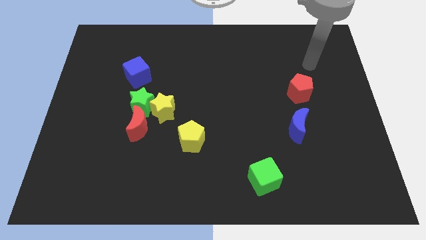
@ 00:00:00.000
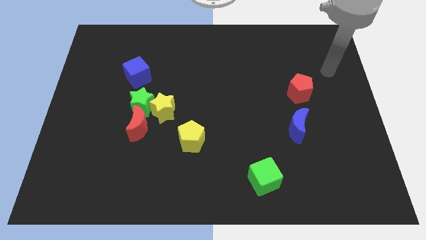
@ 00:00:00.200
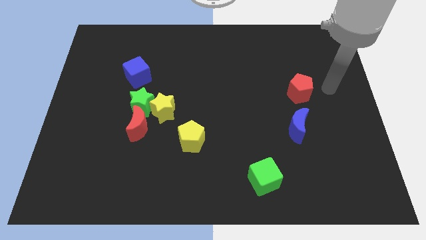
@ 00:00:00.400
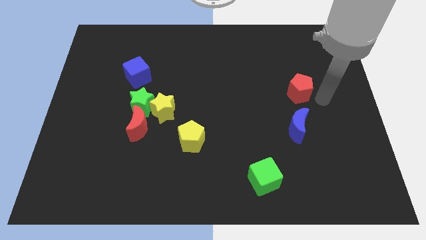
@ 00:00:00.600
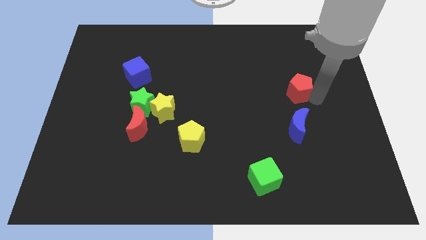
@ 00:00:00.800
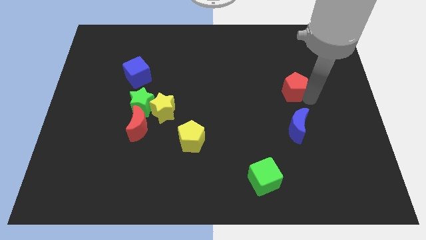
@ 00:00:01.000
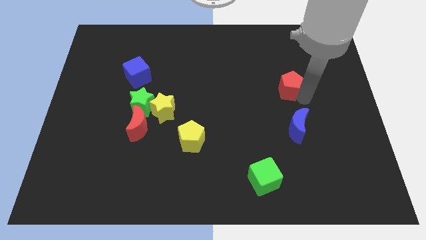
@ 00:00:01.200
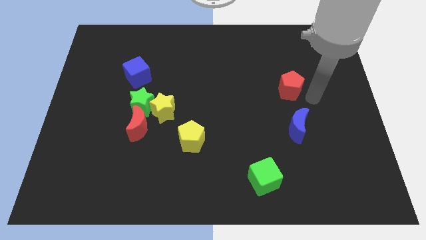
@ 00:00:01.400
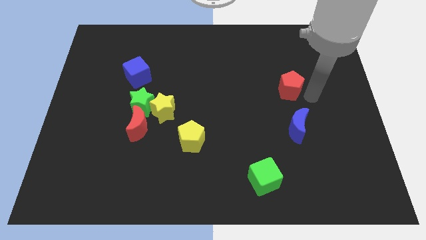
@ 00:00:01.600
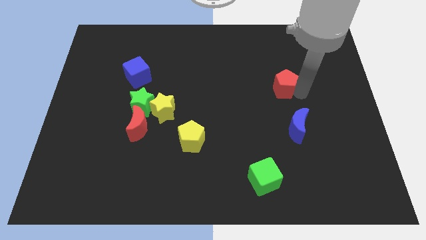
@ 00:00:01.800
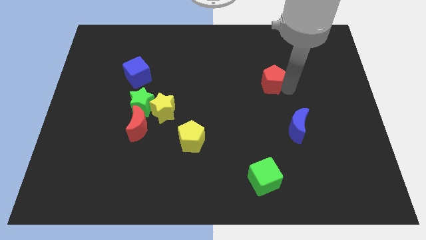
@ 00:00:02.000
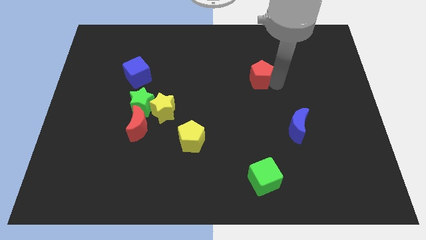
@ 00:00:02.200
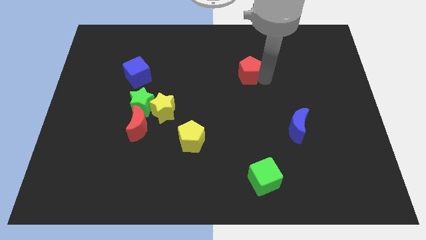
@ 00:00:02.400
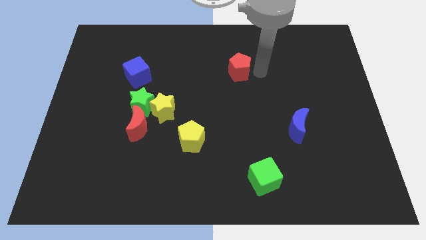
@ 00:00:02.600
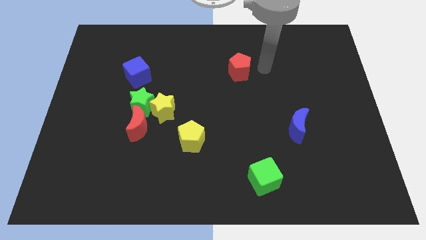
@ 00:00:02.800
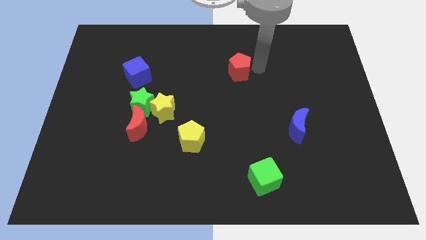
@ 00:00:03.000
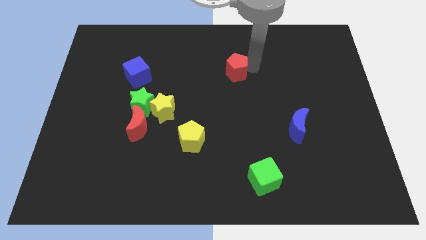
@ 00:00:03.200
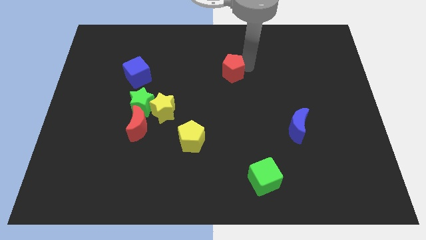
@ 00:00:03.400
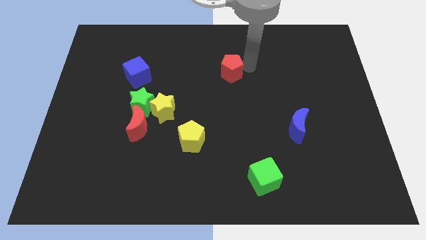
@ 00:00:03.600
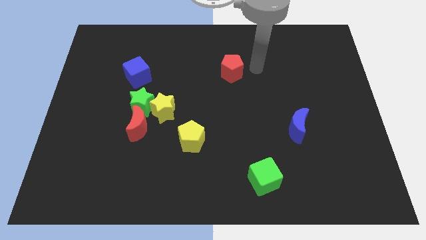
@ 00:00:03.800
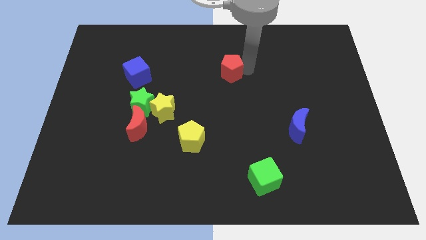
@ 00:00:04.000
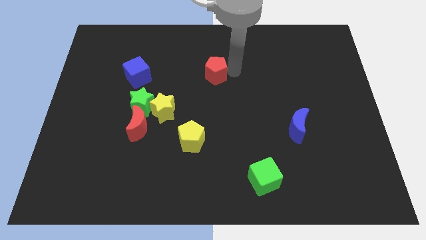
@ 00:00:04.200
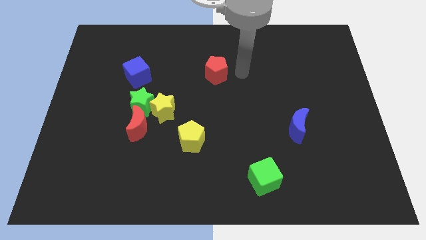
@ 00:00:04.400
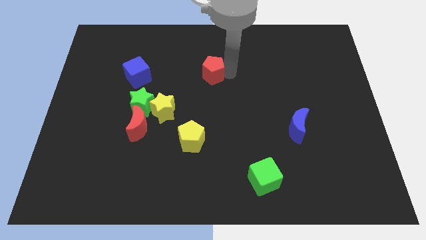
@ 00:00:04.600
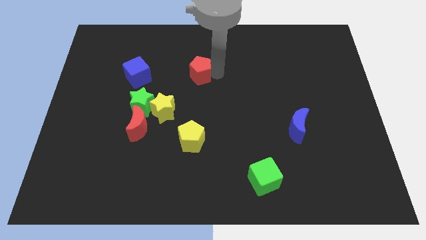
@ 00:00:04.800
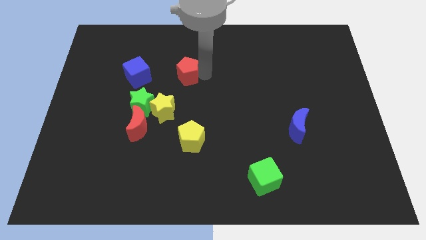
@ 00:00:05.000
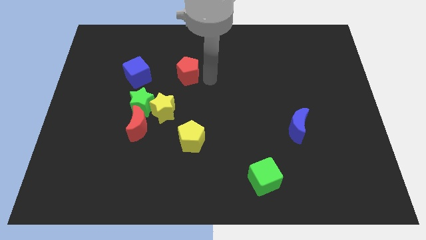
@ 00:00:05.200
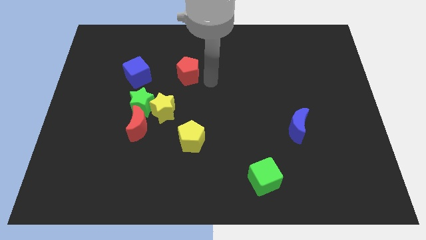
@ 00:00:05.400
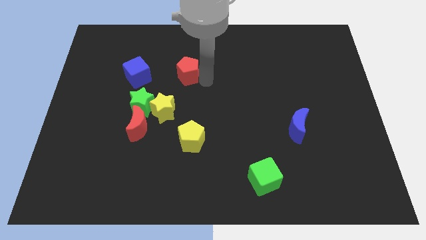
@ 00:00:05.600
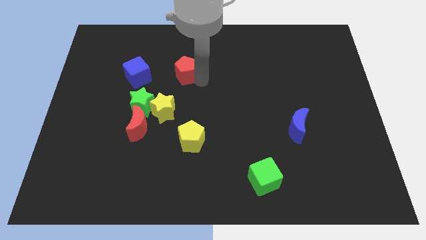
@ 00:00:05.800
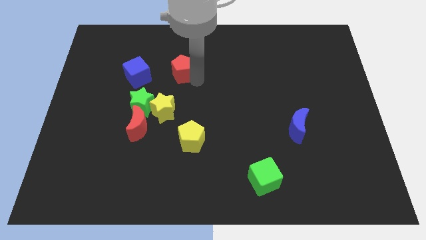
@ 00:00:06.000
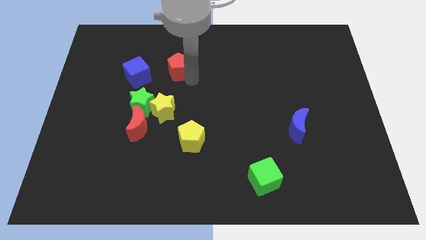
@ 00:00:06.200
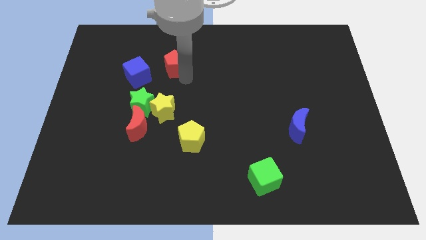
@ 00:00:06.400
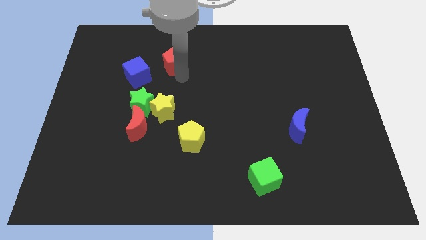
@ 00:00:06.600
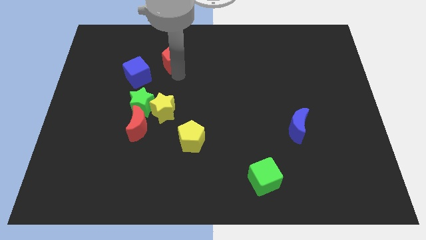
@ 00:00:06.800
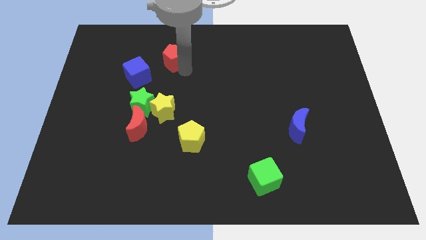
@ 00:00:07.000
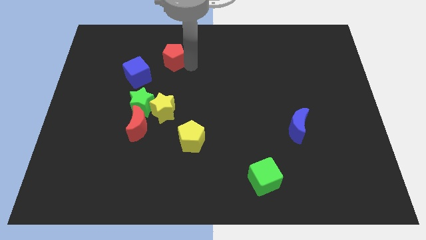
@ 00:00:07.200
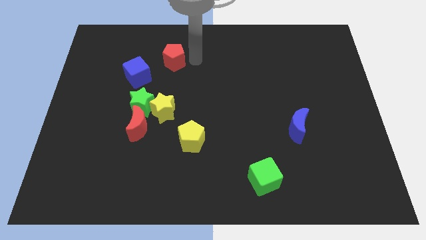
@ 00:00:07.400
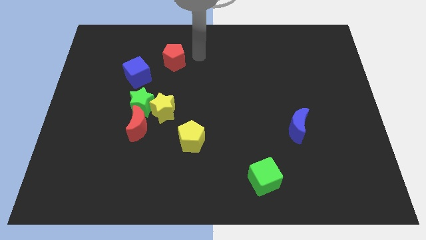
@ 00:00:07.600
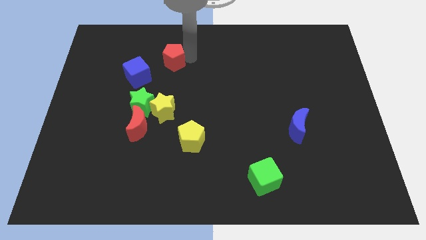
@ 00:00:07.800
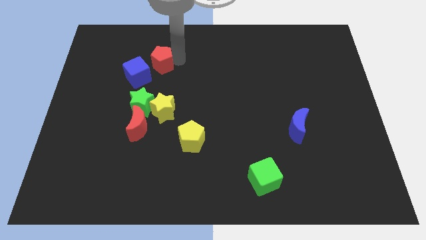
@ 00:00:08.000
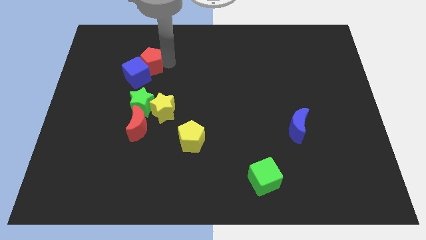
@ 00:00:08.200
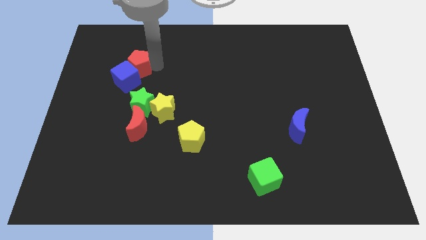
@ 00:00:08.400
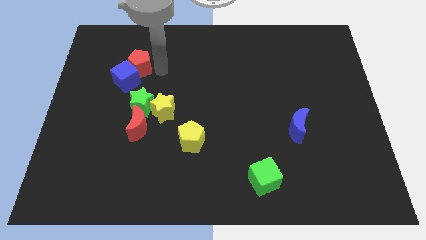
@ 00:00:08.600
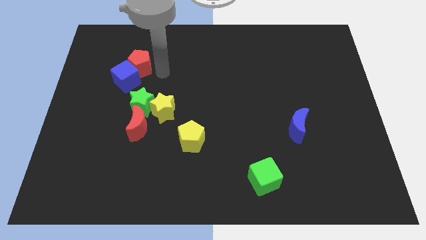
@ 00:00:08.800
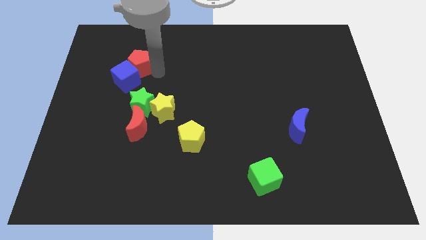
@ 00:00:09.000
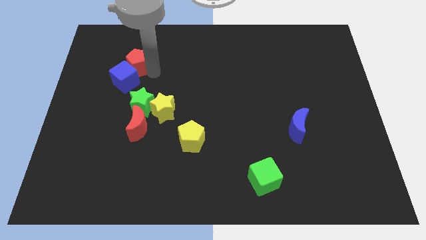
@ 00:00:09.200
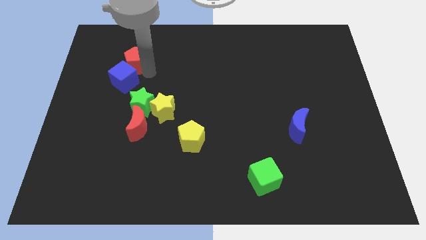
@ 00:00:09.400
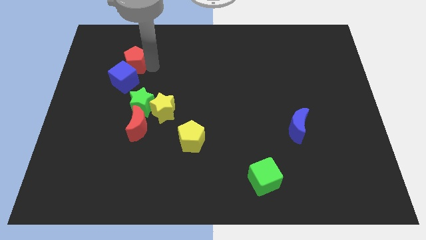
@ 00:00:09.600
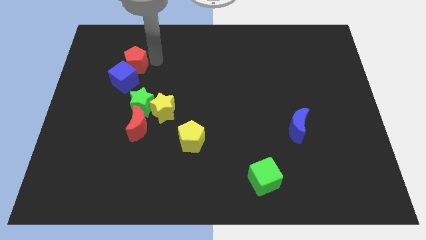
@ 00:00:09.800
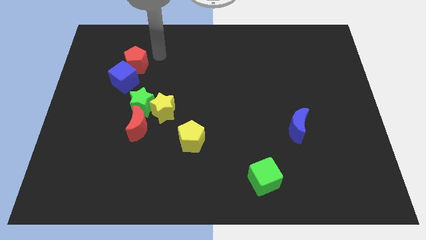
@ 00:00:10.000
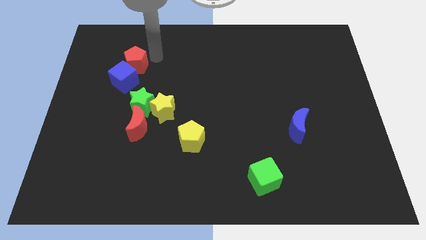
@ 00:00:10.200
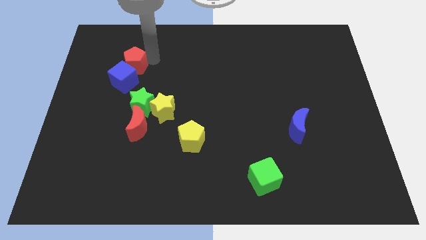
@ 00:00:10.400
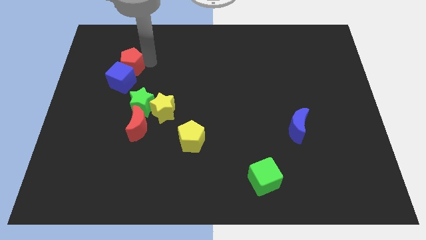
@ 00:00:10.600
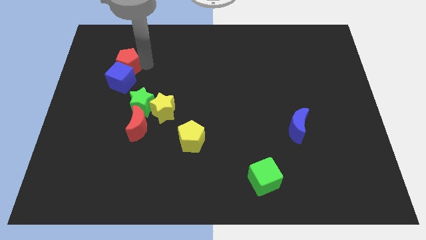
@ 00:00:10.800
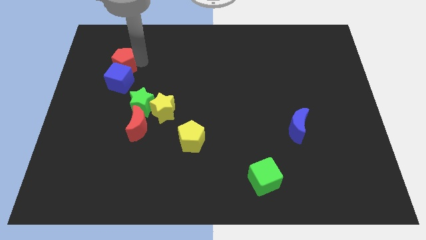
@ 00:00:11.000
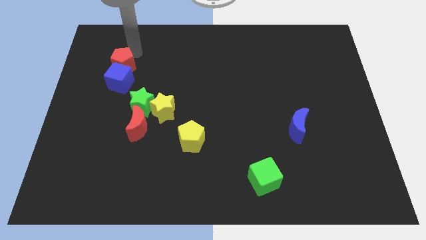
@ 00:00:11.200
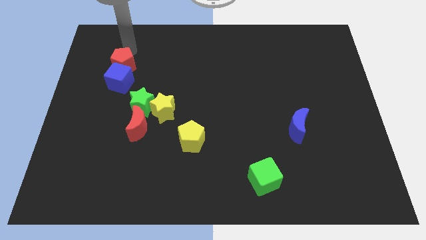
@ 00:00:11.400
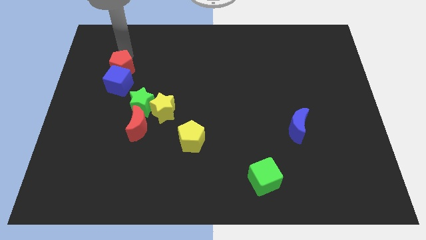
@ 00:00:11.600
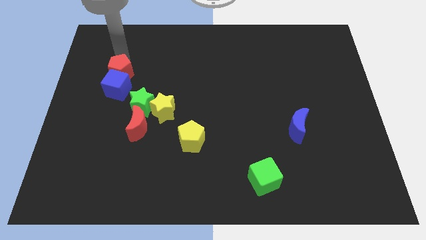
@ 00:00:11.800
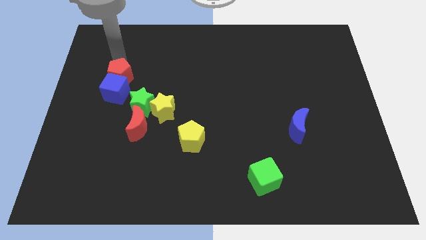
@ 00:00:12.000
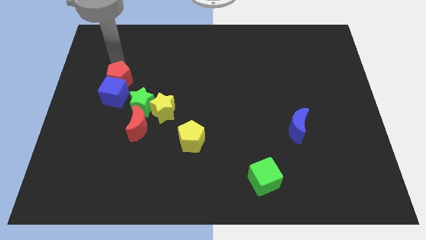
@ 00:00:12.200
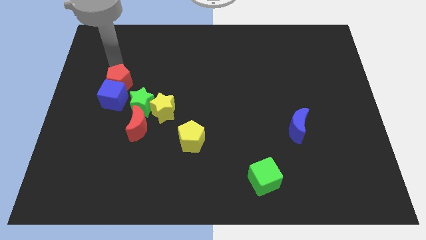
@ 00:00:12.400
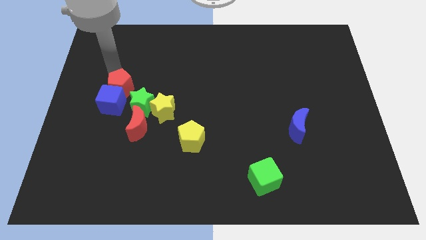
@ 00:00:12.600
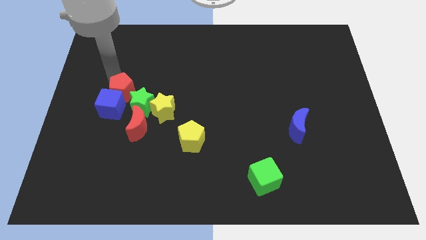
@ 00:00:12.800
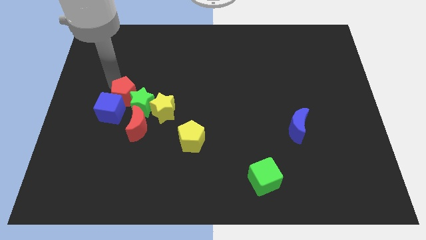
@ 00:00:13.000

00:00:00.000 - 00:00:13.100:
put the red pentagon to the left of the yellow star
